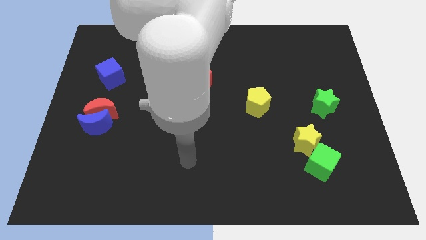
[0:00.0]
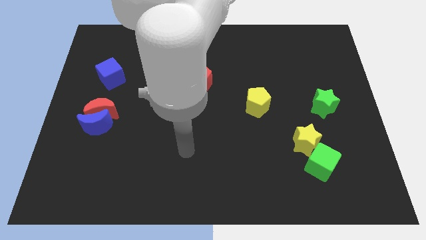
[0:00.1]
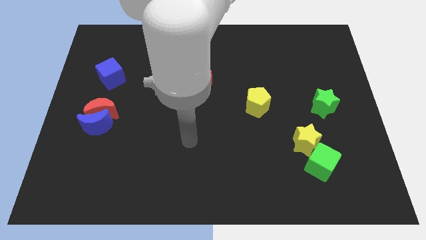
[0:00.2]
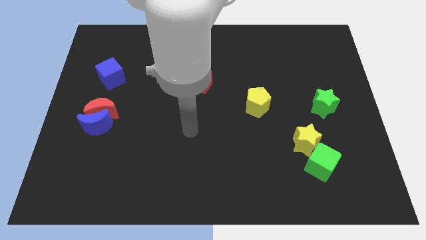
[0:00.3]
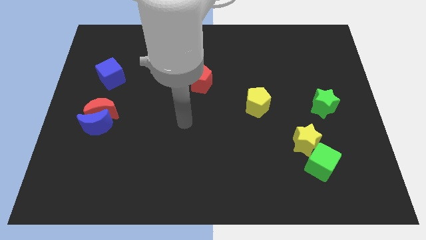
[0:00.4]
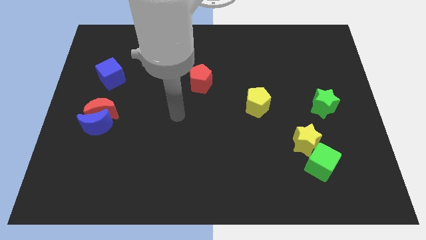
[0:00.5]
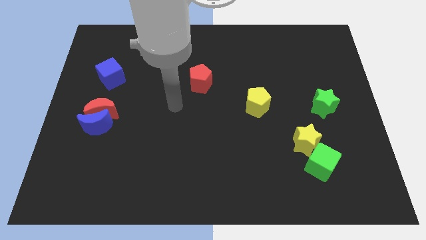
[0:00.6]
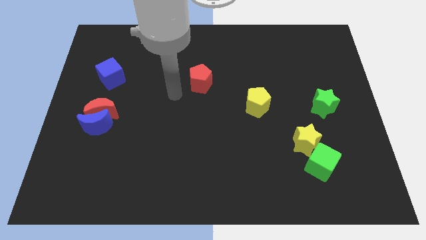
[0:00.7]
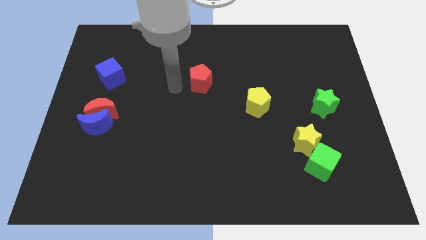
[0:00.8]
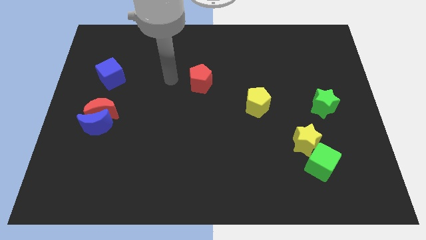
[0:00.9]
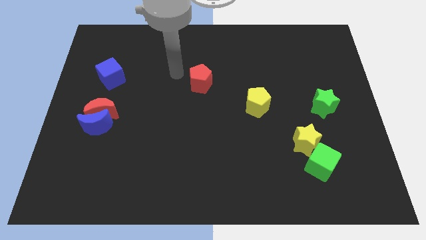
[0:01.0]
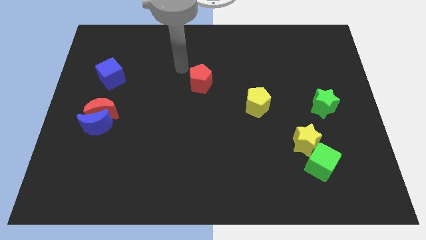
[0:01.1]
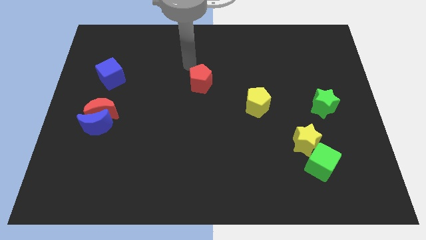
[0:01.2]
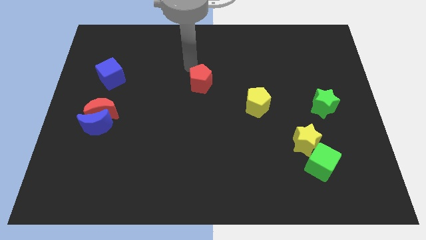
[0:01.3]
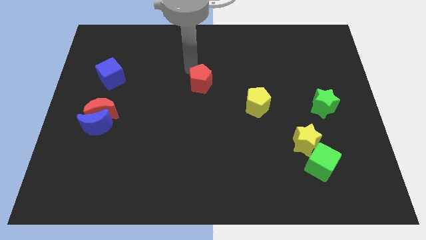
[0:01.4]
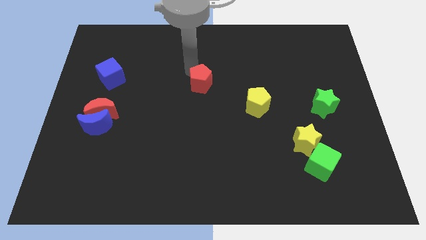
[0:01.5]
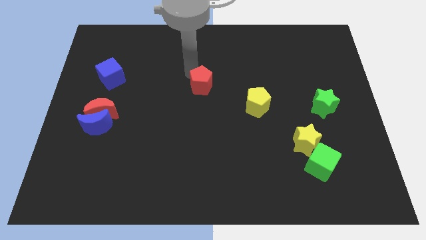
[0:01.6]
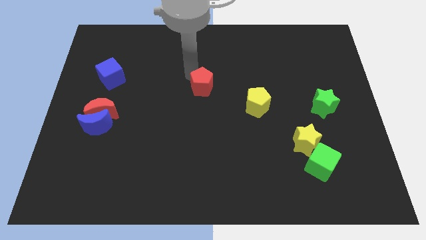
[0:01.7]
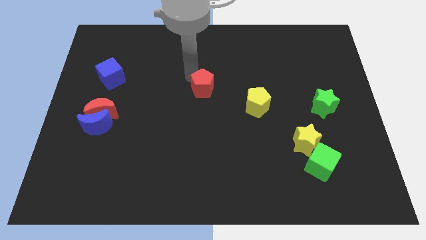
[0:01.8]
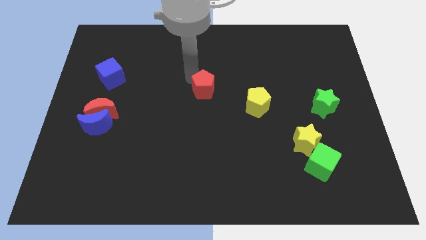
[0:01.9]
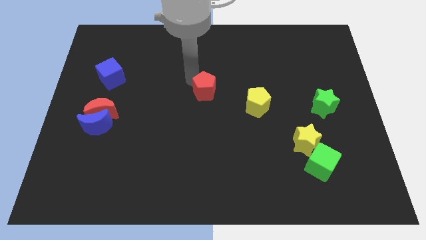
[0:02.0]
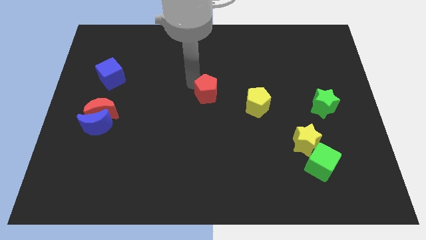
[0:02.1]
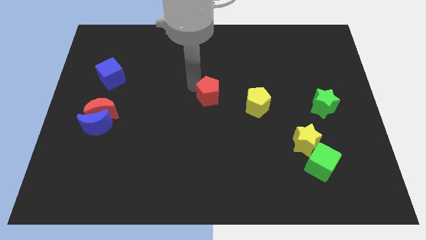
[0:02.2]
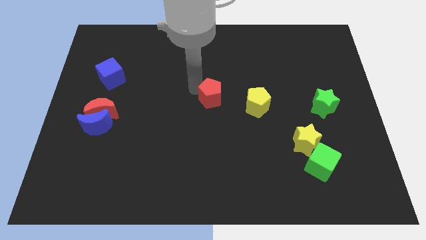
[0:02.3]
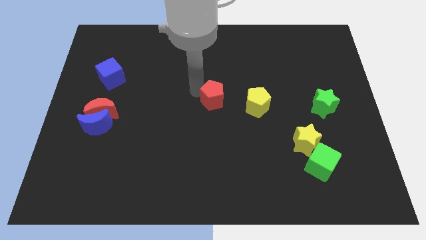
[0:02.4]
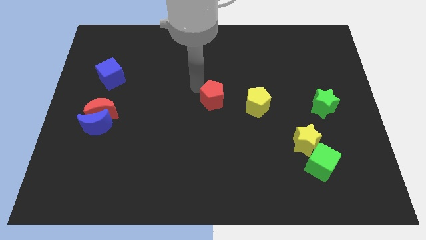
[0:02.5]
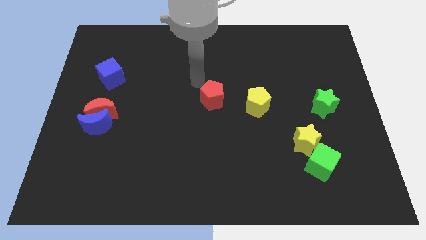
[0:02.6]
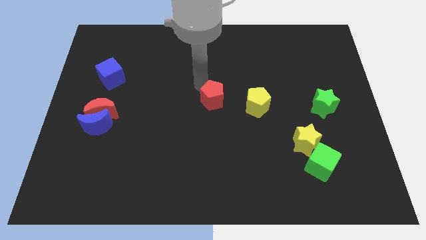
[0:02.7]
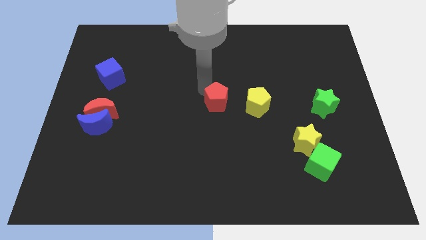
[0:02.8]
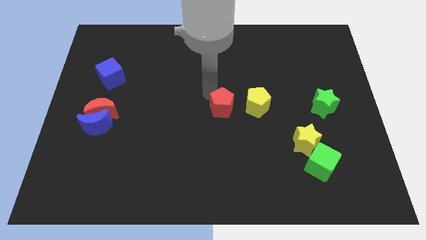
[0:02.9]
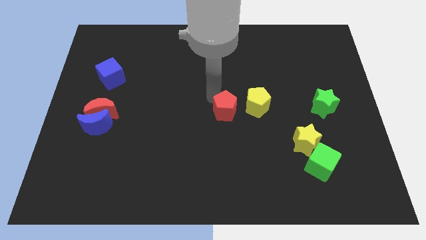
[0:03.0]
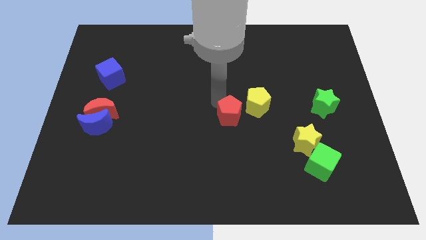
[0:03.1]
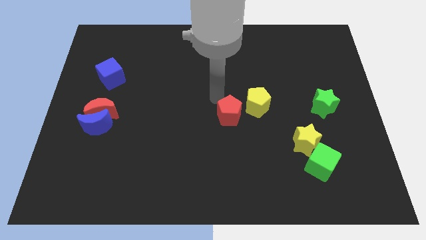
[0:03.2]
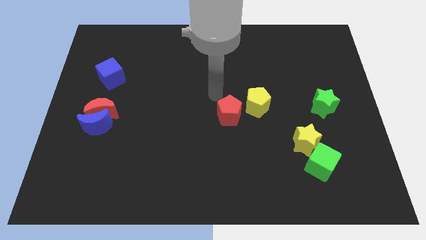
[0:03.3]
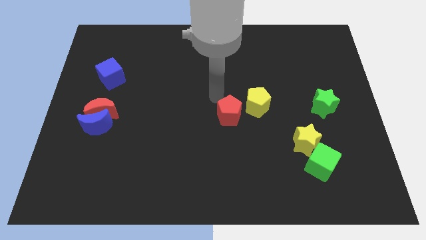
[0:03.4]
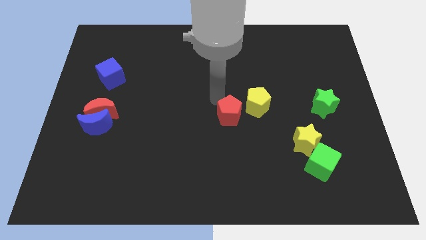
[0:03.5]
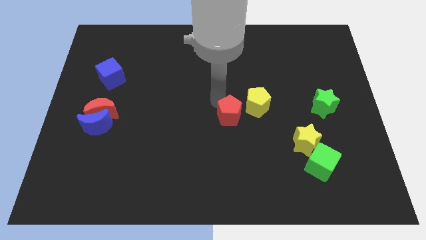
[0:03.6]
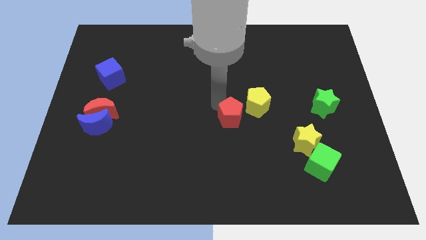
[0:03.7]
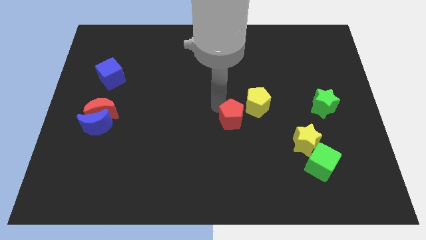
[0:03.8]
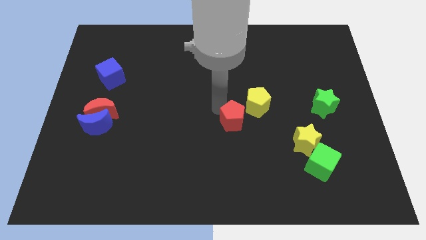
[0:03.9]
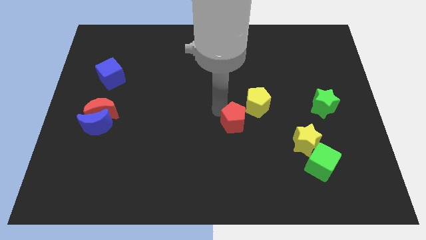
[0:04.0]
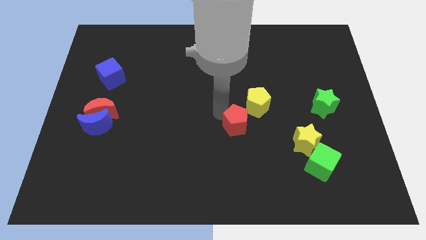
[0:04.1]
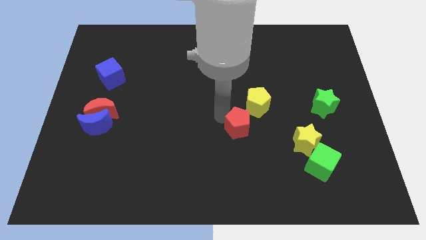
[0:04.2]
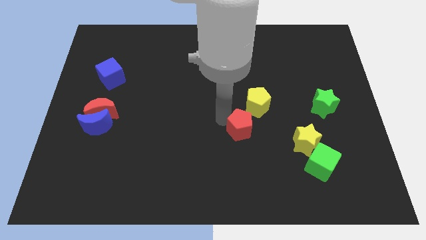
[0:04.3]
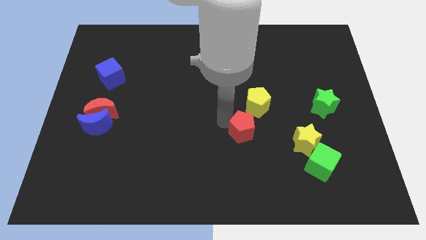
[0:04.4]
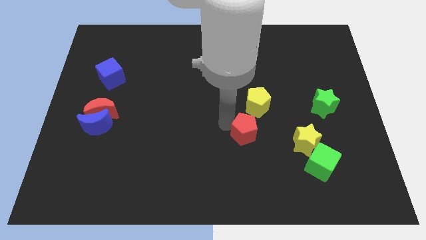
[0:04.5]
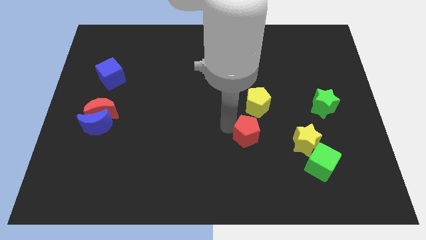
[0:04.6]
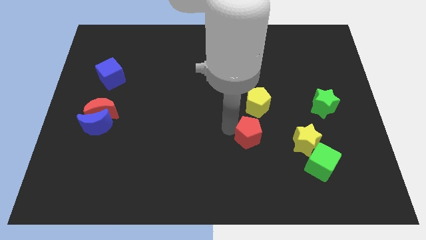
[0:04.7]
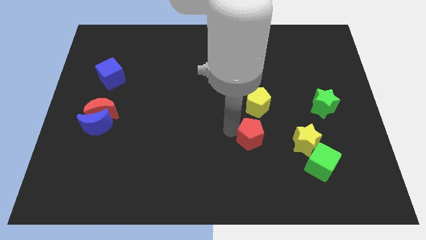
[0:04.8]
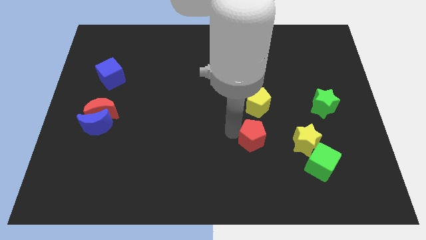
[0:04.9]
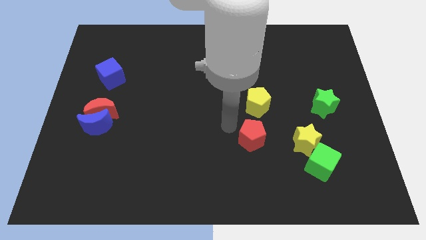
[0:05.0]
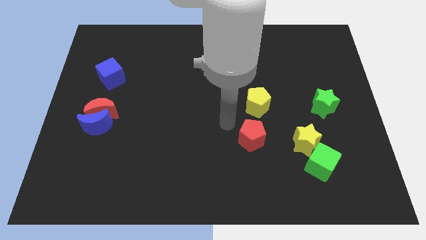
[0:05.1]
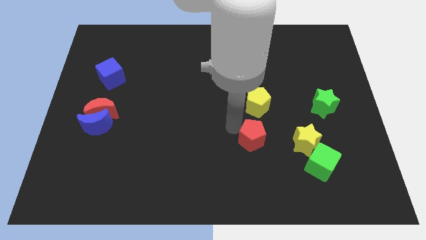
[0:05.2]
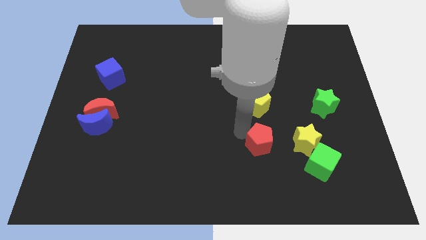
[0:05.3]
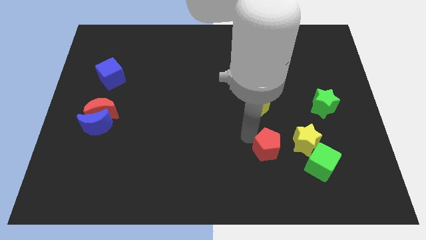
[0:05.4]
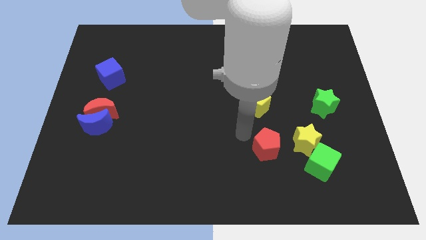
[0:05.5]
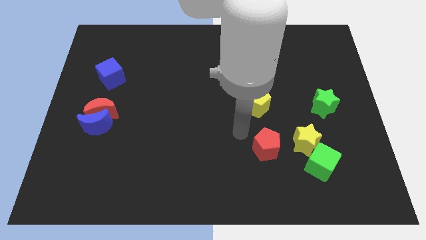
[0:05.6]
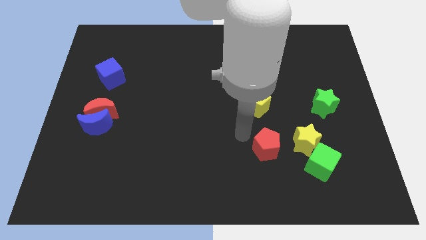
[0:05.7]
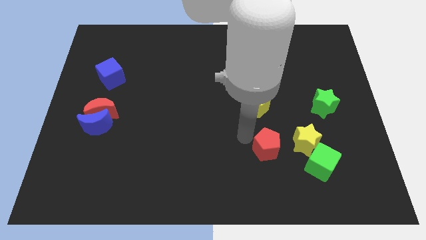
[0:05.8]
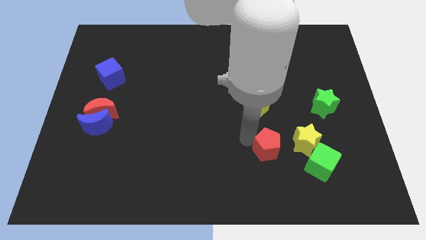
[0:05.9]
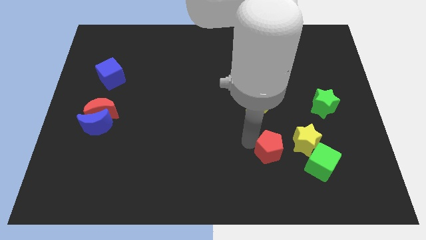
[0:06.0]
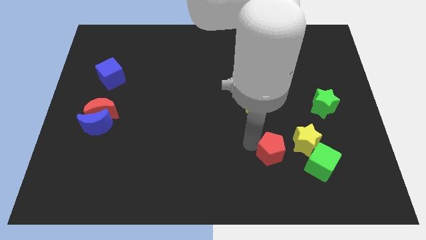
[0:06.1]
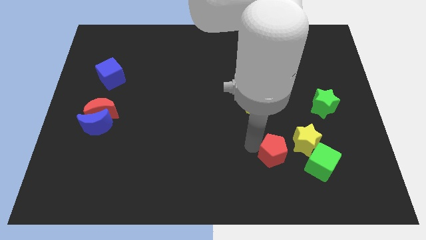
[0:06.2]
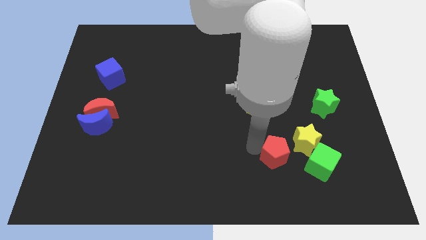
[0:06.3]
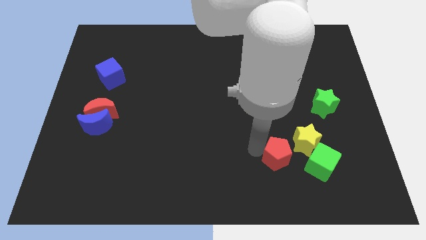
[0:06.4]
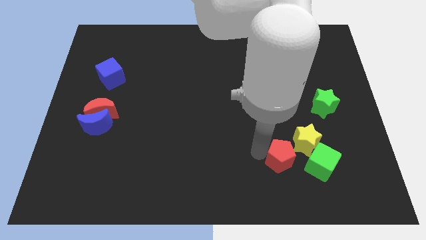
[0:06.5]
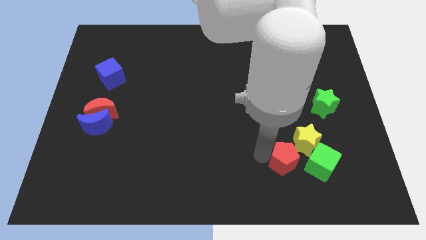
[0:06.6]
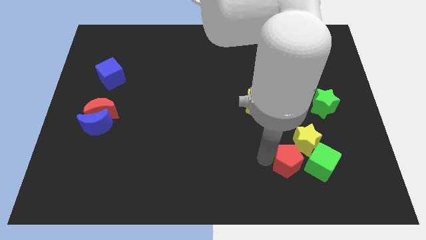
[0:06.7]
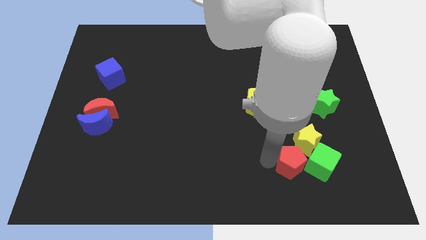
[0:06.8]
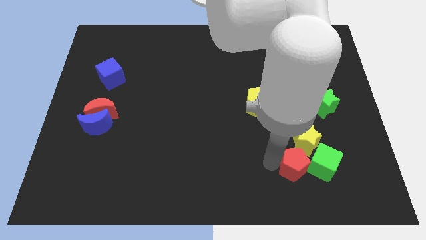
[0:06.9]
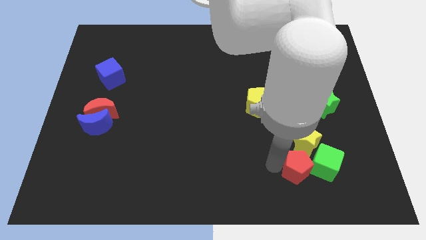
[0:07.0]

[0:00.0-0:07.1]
push the red pentagon towards the green cube
